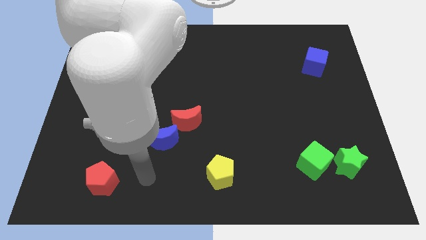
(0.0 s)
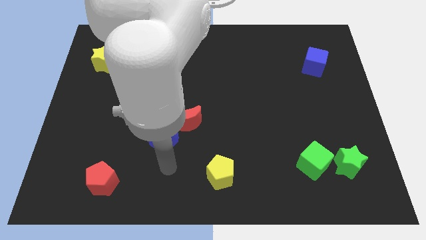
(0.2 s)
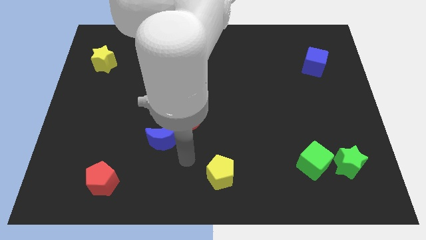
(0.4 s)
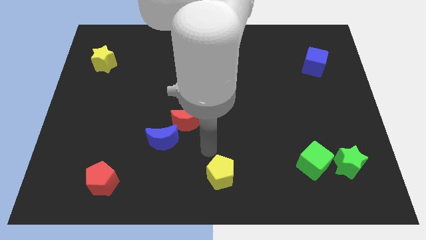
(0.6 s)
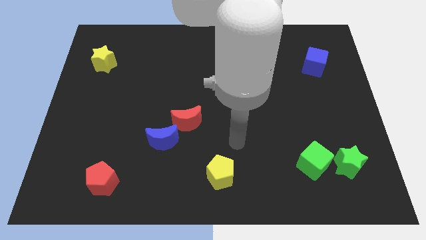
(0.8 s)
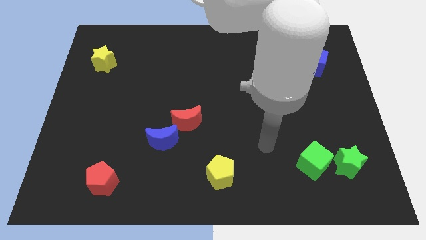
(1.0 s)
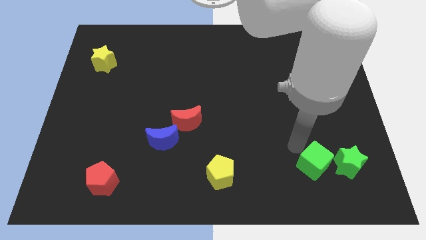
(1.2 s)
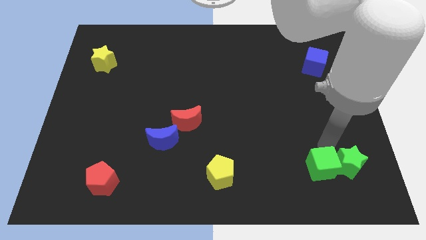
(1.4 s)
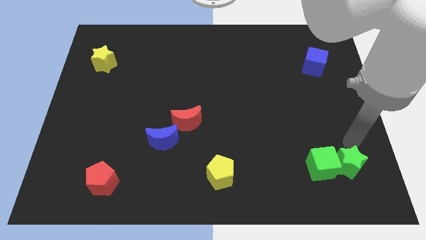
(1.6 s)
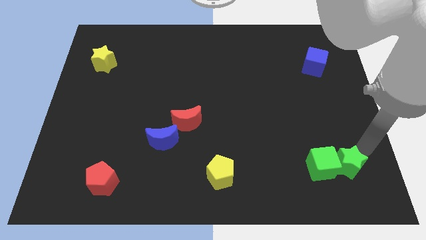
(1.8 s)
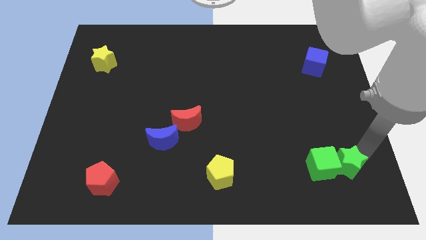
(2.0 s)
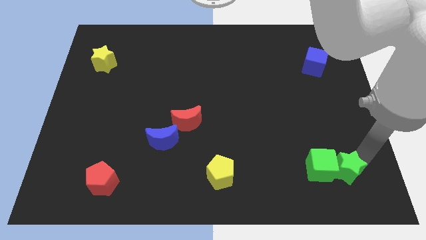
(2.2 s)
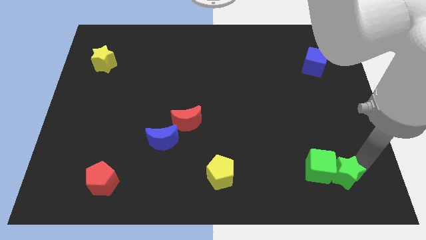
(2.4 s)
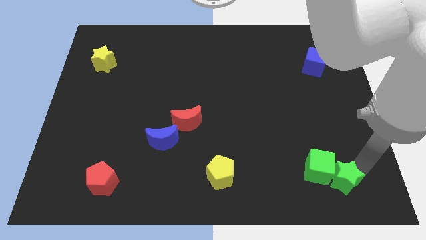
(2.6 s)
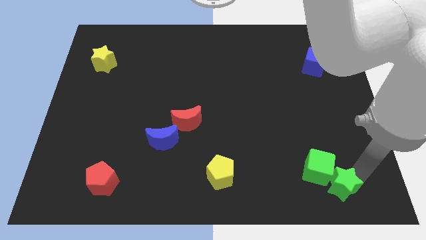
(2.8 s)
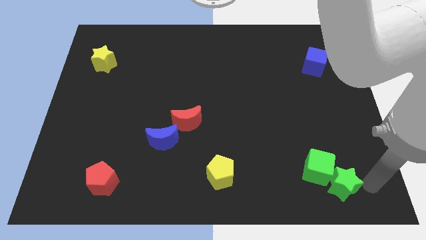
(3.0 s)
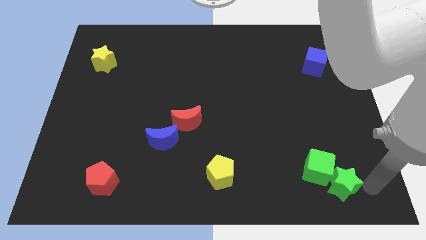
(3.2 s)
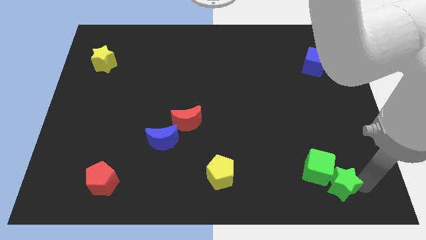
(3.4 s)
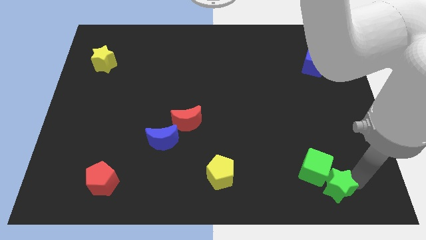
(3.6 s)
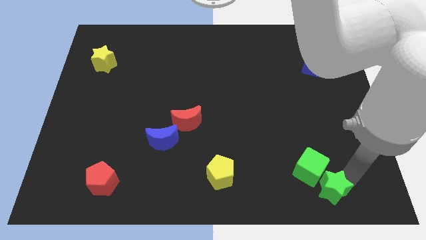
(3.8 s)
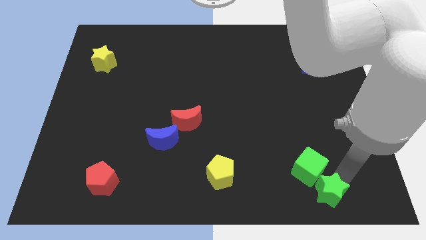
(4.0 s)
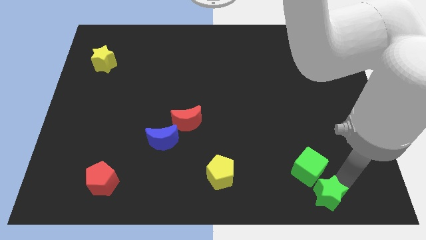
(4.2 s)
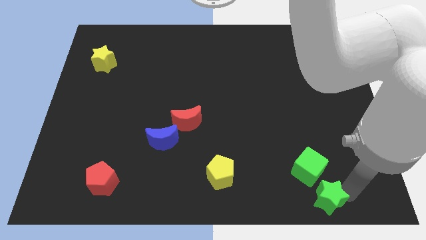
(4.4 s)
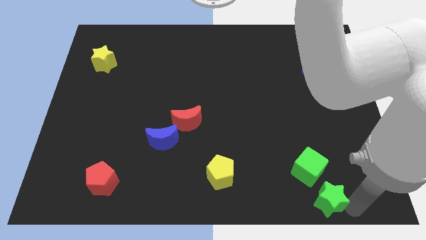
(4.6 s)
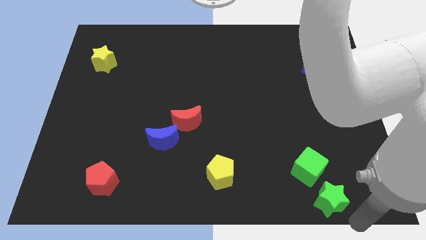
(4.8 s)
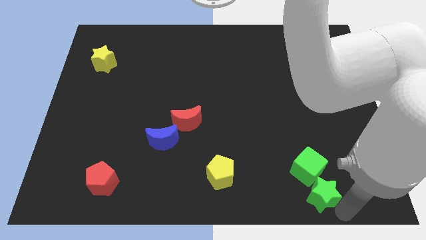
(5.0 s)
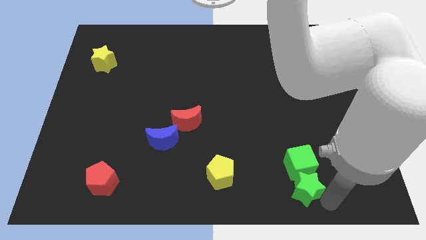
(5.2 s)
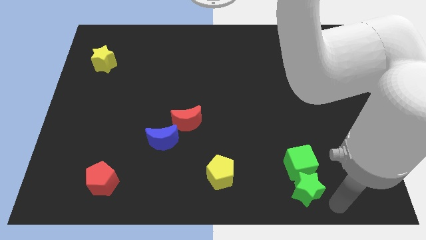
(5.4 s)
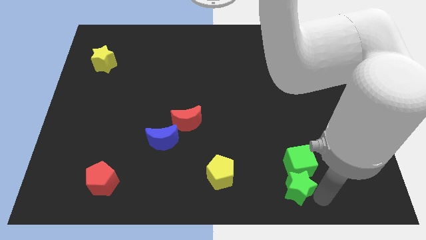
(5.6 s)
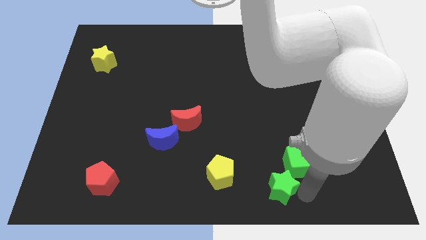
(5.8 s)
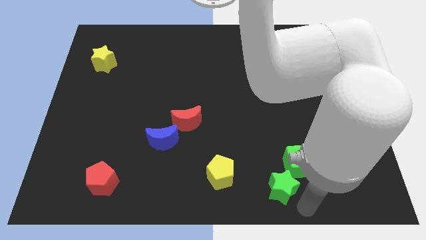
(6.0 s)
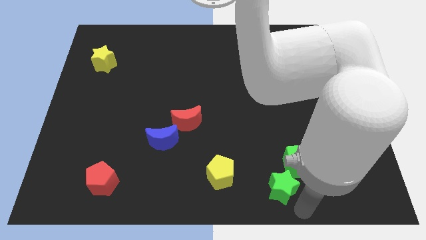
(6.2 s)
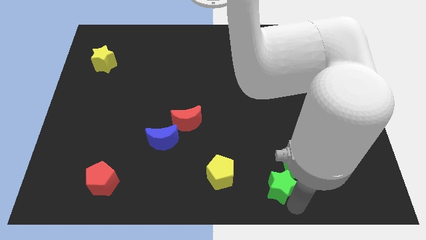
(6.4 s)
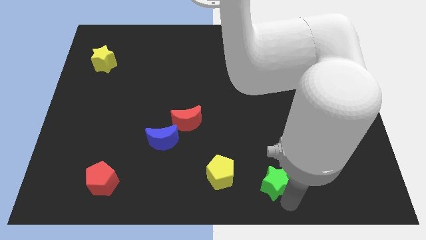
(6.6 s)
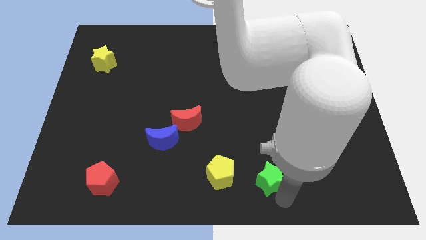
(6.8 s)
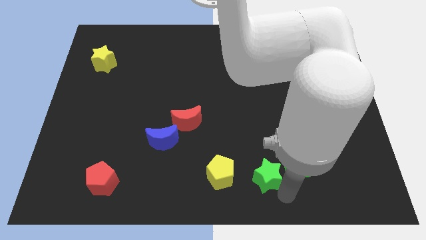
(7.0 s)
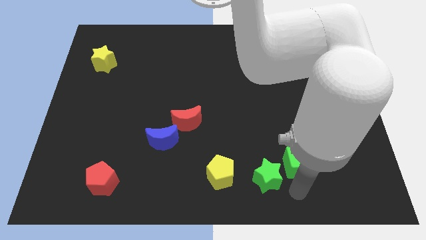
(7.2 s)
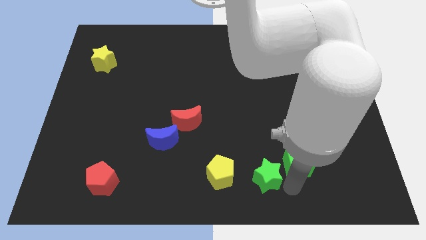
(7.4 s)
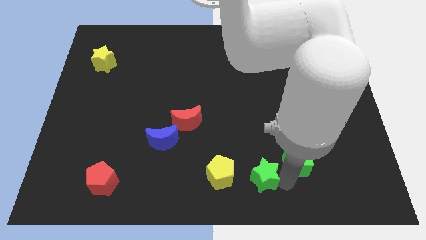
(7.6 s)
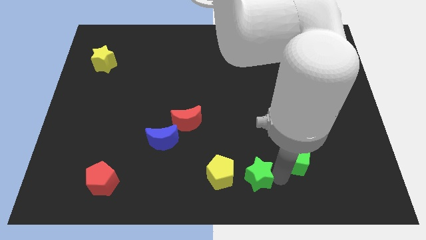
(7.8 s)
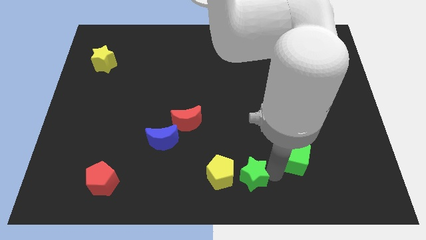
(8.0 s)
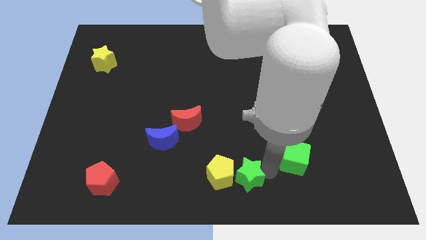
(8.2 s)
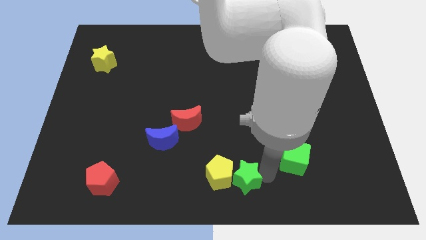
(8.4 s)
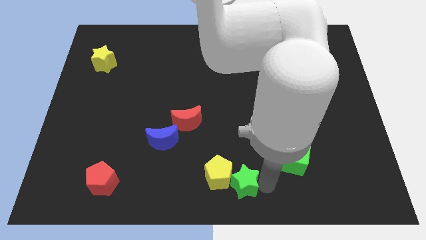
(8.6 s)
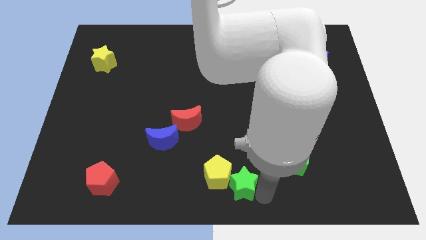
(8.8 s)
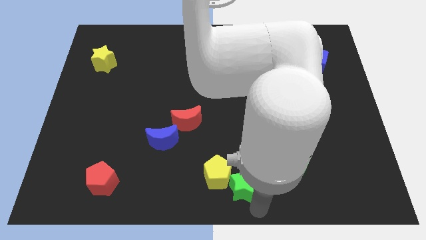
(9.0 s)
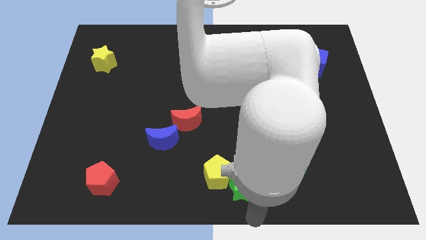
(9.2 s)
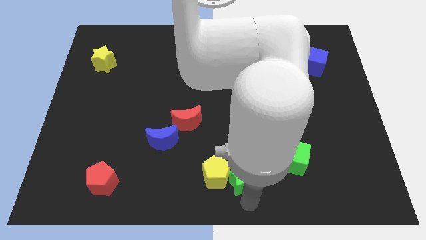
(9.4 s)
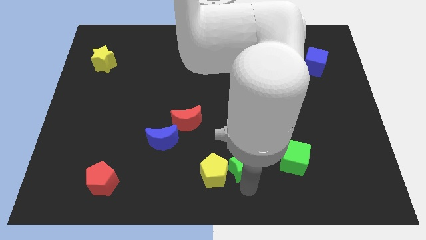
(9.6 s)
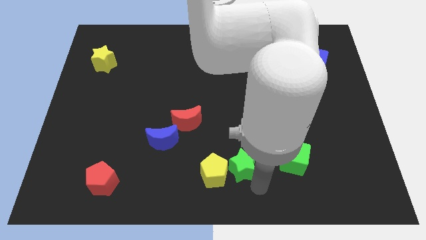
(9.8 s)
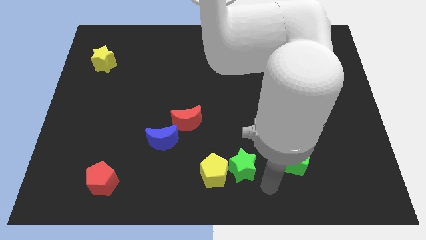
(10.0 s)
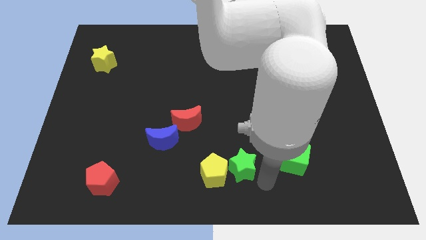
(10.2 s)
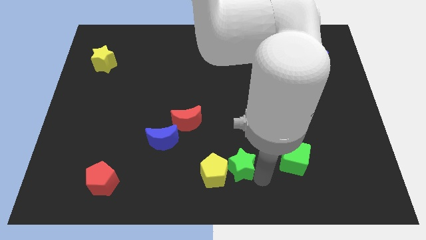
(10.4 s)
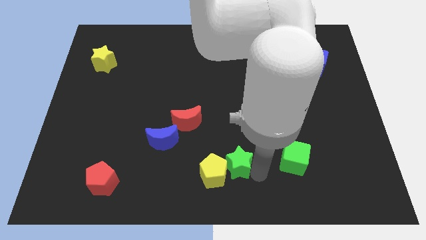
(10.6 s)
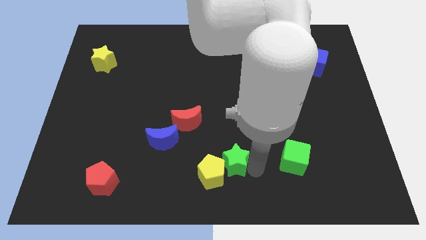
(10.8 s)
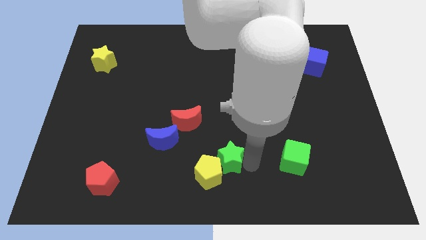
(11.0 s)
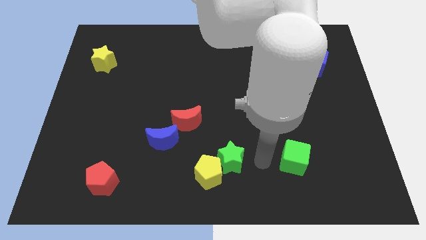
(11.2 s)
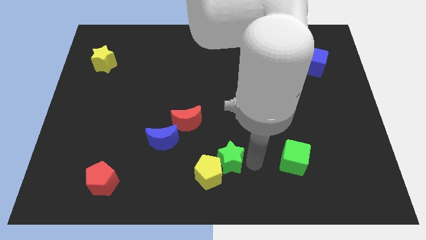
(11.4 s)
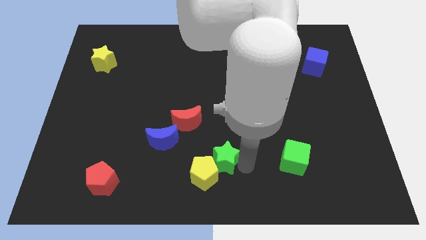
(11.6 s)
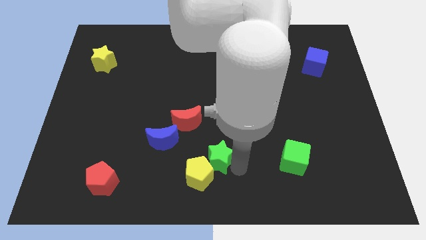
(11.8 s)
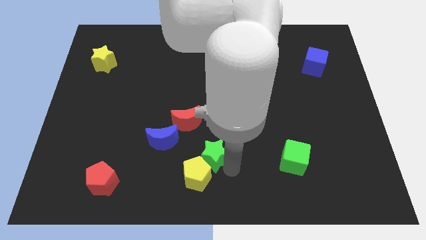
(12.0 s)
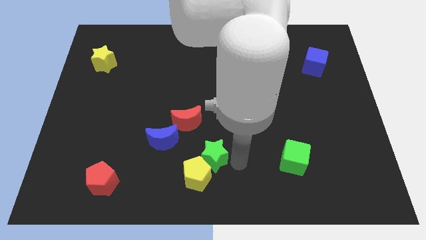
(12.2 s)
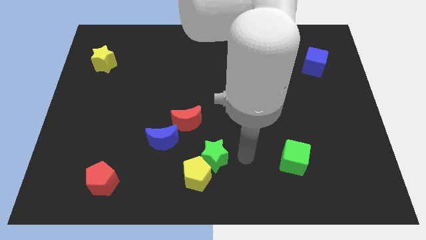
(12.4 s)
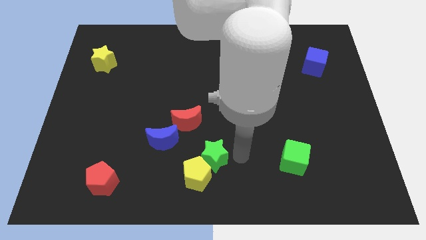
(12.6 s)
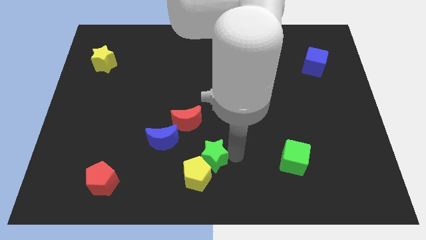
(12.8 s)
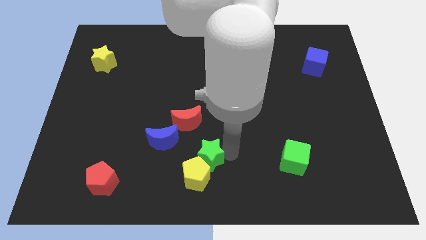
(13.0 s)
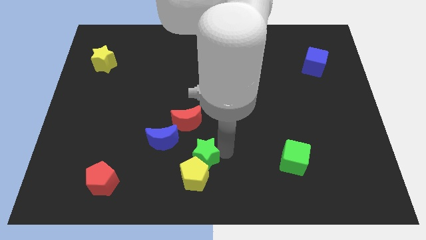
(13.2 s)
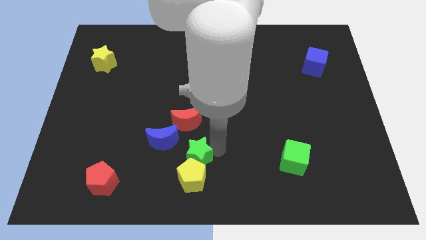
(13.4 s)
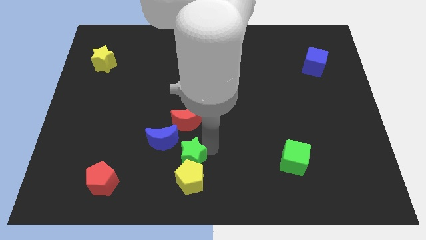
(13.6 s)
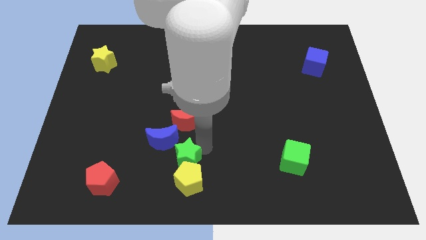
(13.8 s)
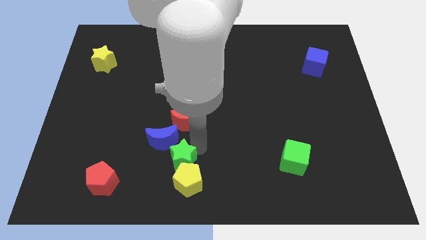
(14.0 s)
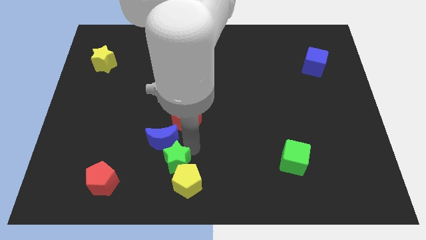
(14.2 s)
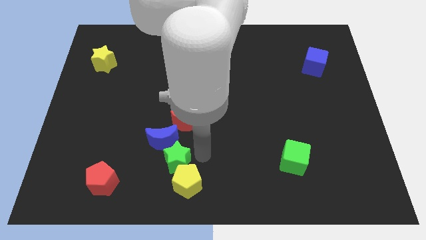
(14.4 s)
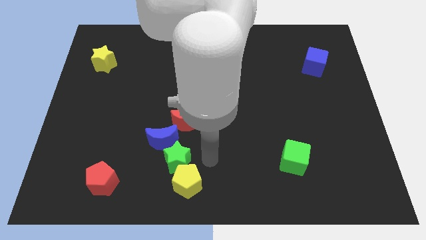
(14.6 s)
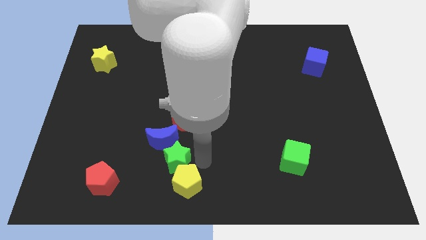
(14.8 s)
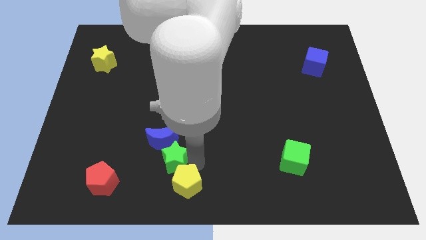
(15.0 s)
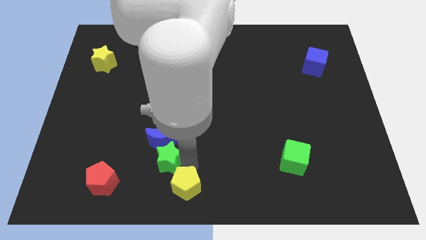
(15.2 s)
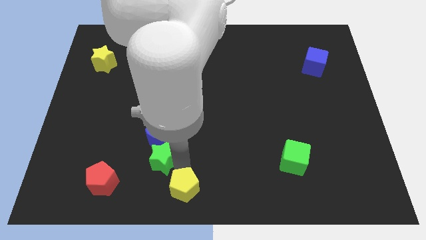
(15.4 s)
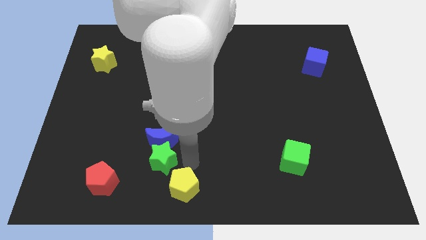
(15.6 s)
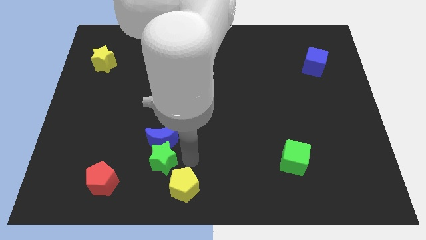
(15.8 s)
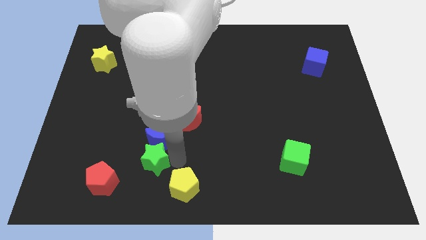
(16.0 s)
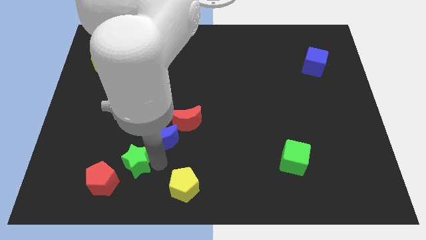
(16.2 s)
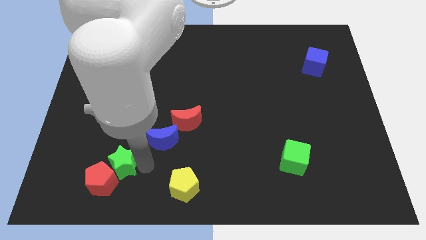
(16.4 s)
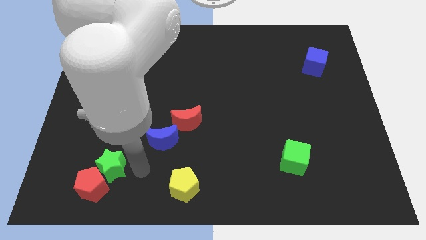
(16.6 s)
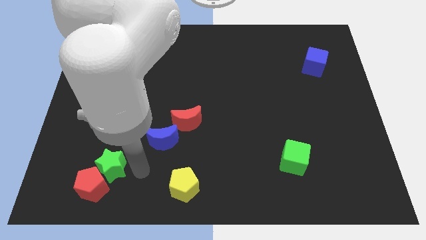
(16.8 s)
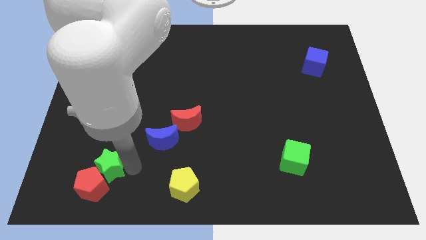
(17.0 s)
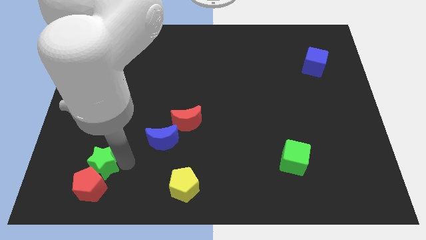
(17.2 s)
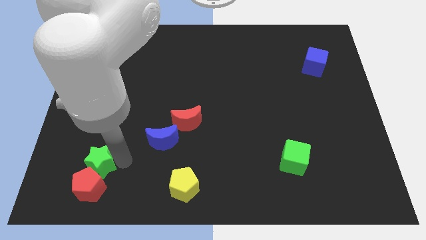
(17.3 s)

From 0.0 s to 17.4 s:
put the green star diagonally up and to the left of the red pentagon
